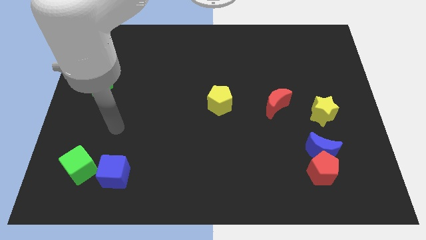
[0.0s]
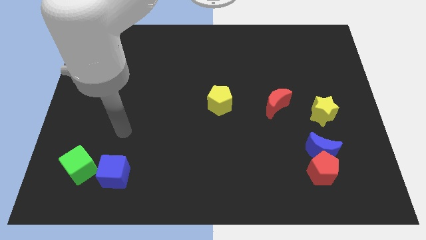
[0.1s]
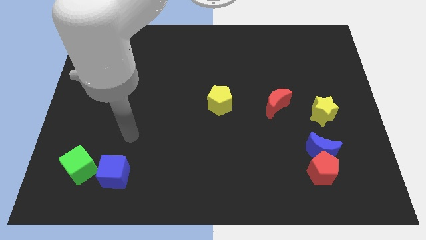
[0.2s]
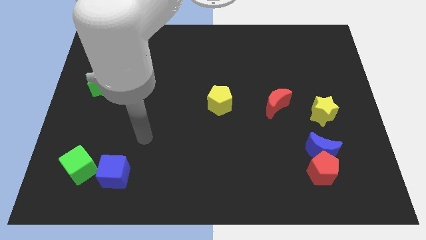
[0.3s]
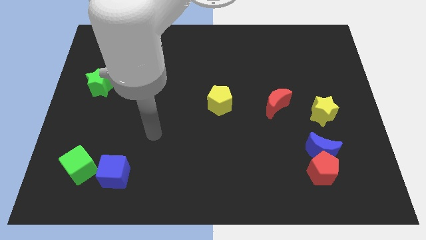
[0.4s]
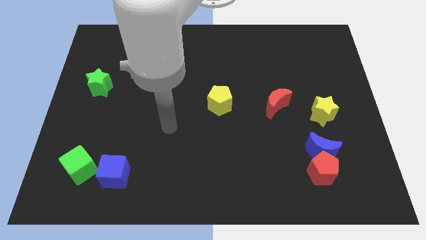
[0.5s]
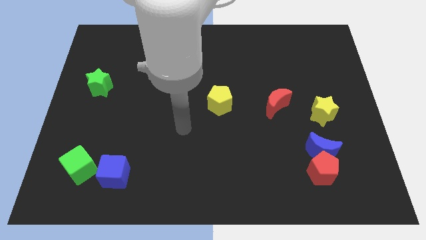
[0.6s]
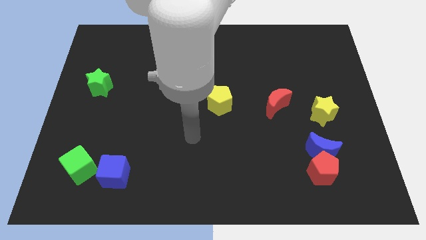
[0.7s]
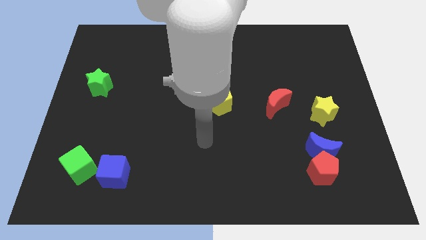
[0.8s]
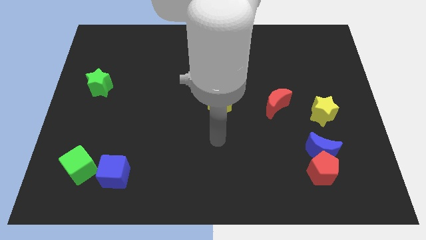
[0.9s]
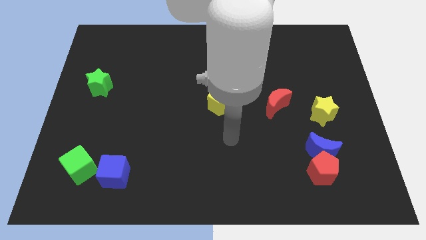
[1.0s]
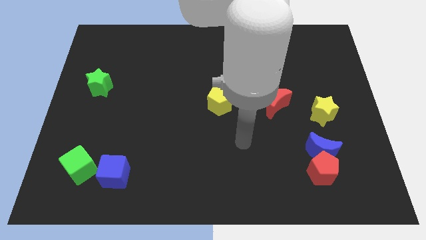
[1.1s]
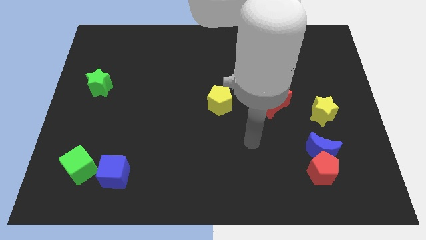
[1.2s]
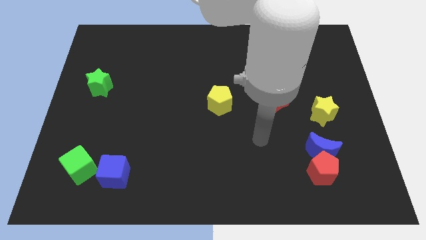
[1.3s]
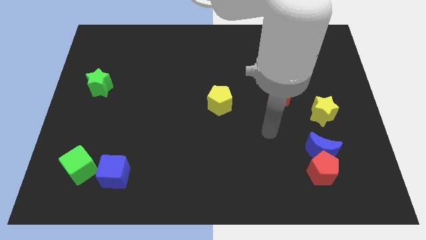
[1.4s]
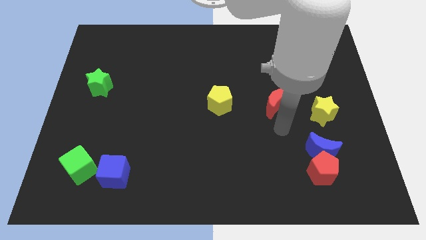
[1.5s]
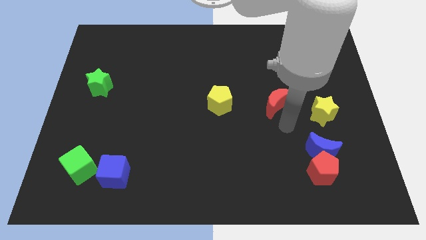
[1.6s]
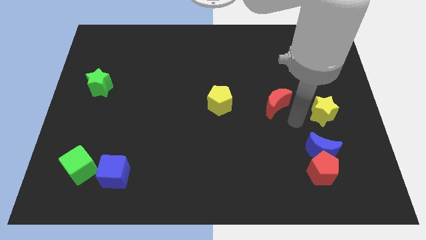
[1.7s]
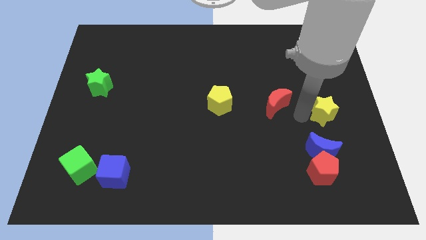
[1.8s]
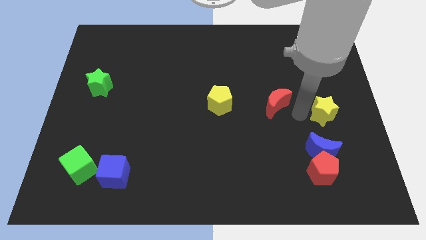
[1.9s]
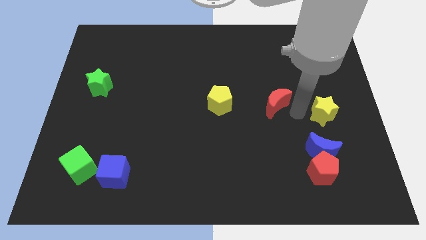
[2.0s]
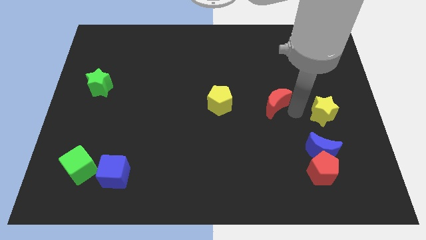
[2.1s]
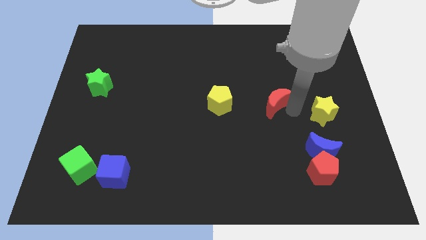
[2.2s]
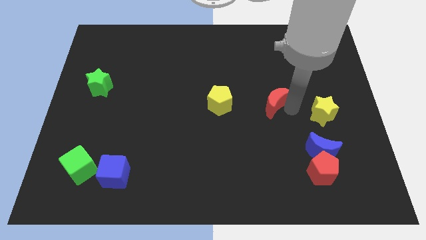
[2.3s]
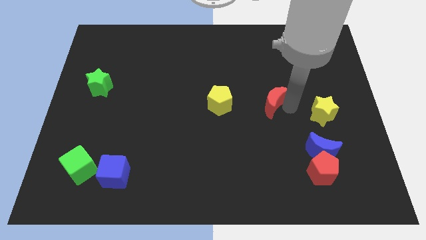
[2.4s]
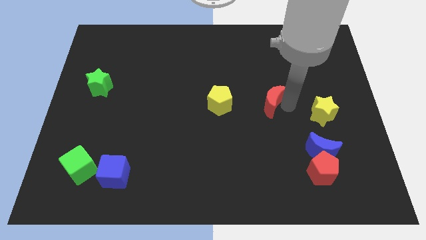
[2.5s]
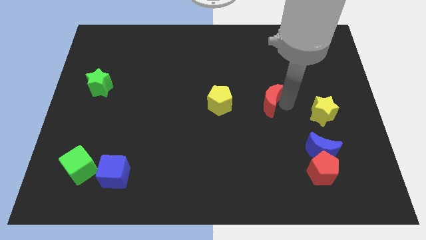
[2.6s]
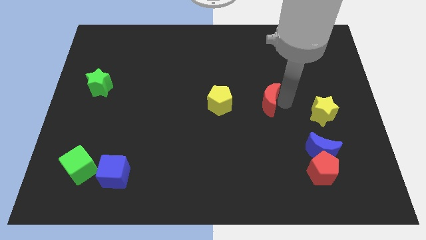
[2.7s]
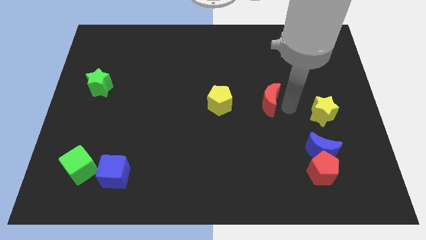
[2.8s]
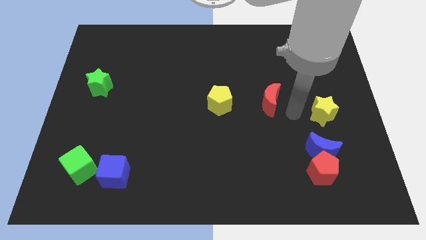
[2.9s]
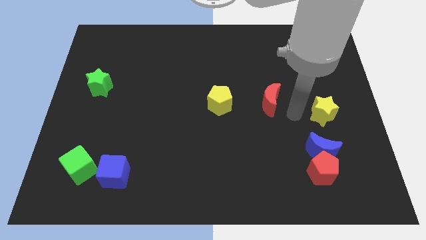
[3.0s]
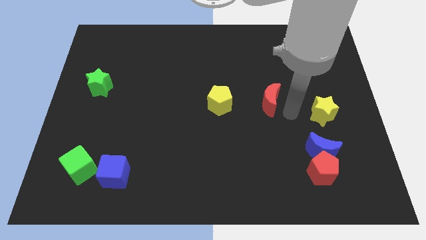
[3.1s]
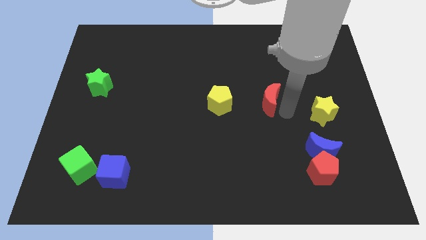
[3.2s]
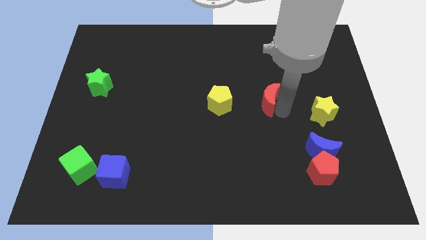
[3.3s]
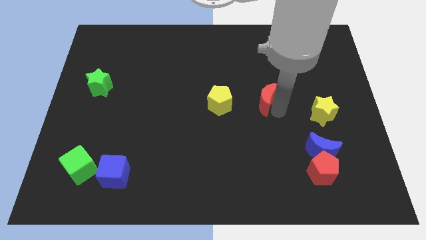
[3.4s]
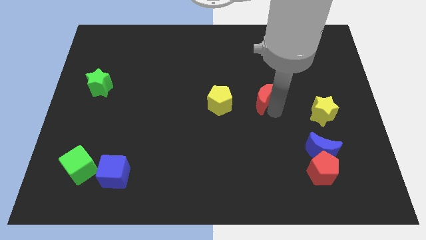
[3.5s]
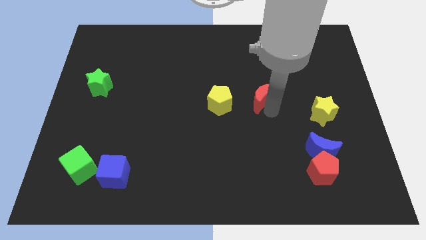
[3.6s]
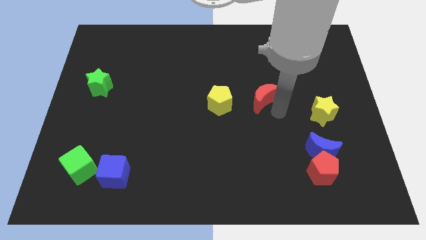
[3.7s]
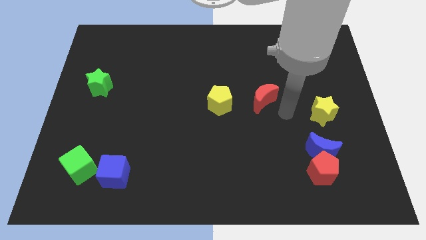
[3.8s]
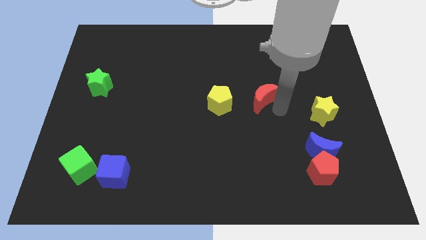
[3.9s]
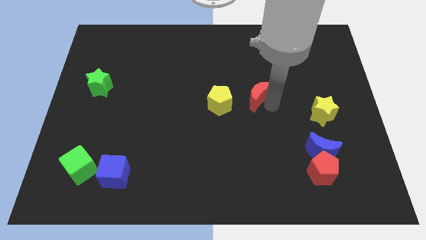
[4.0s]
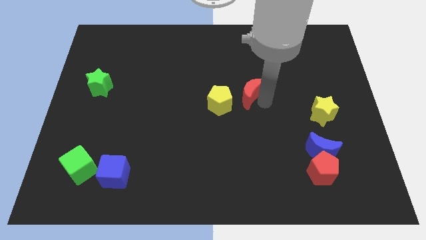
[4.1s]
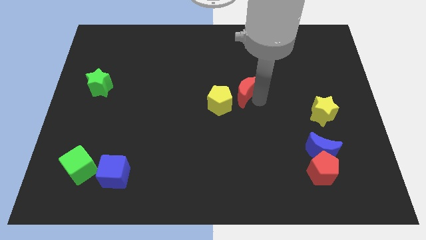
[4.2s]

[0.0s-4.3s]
slightly push the red moon upwards and then left

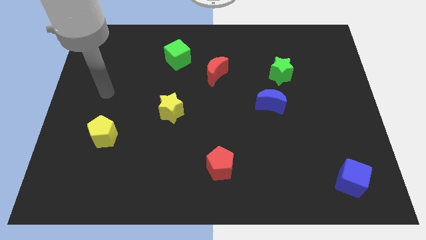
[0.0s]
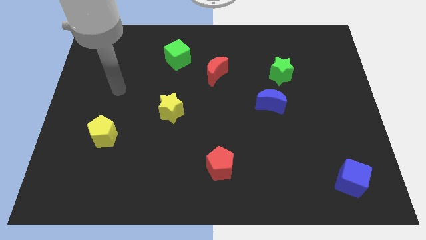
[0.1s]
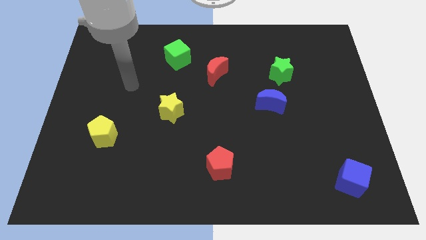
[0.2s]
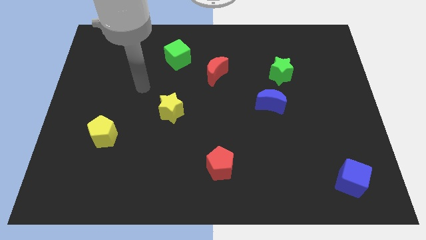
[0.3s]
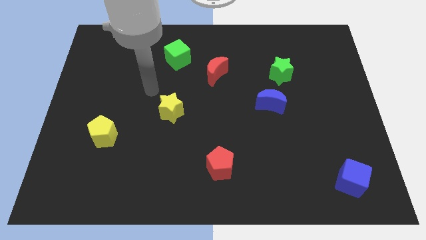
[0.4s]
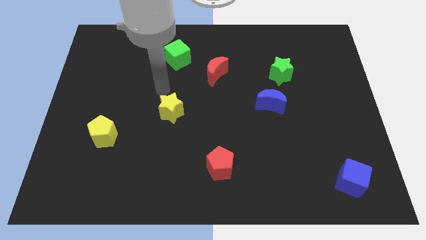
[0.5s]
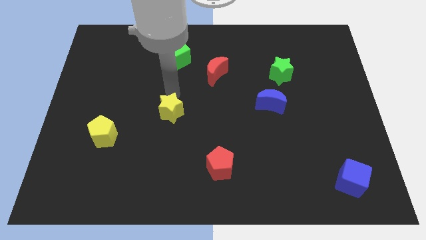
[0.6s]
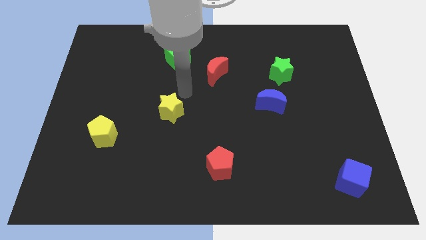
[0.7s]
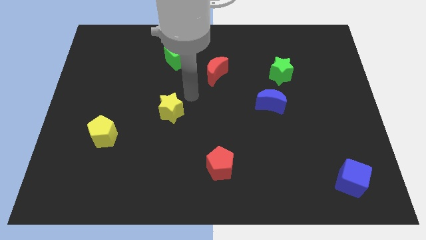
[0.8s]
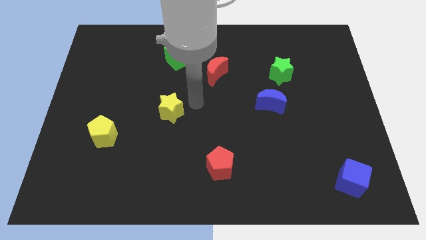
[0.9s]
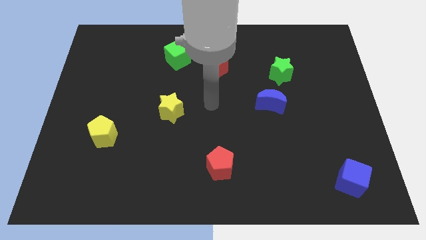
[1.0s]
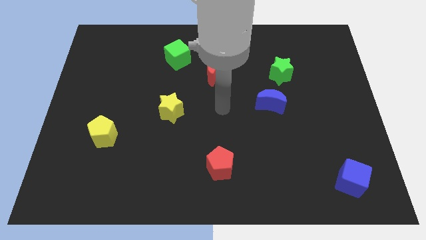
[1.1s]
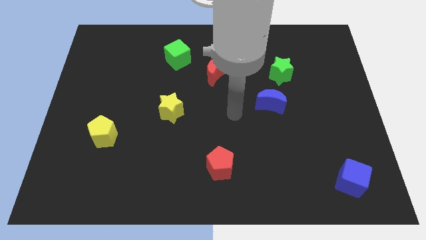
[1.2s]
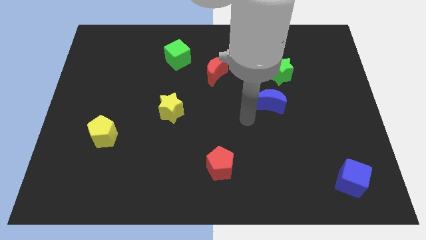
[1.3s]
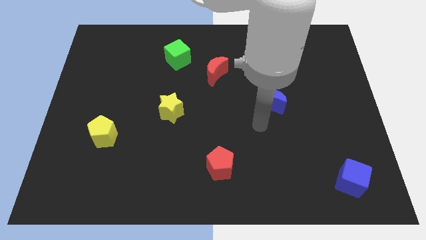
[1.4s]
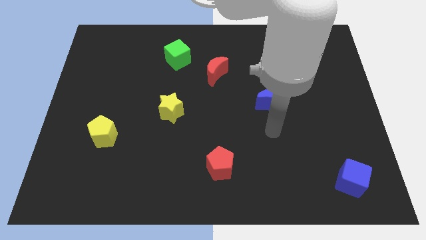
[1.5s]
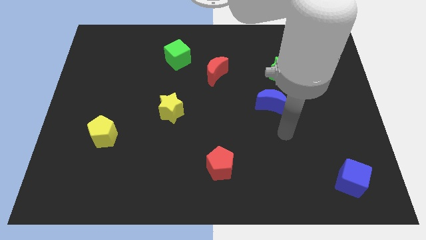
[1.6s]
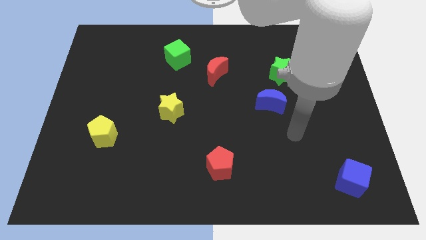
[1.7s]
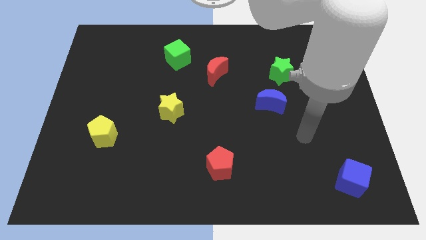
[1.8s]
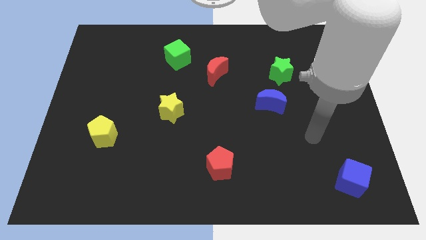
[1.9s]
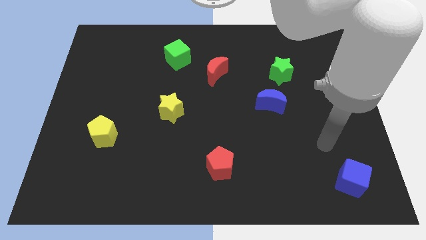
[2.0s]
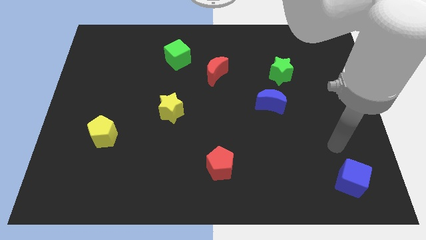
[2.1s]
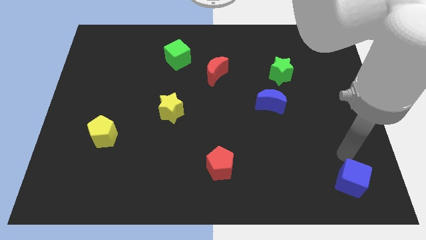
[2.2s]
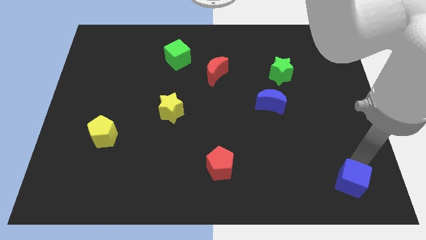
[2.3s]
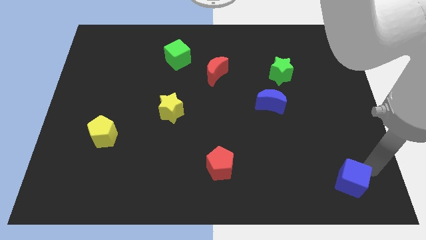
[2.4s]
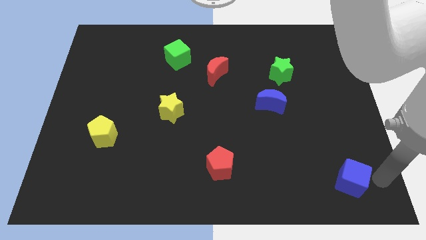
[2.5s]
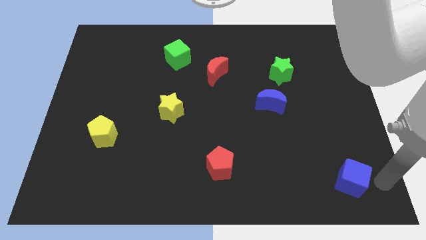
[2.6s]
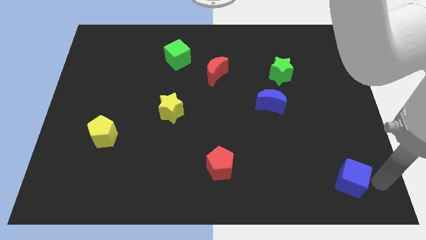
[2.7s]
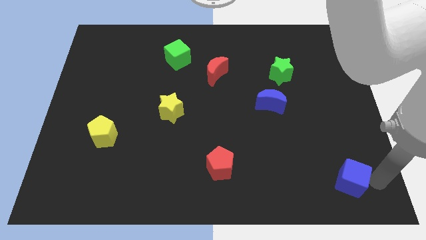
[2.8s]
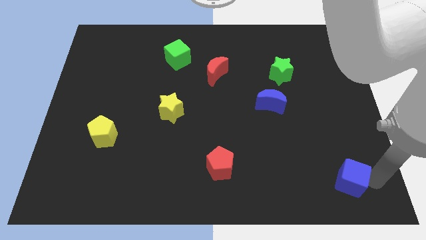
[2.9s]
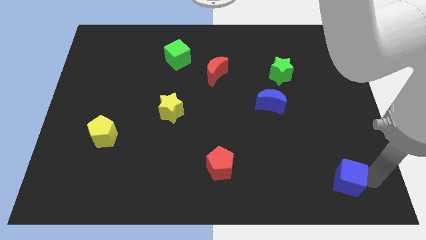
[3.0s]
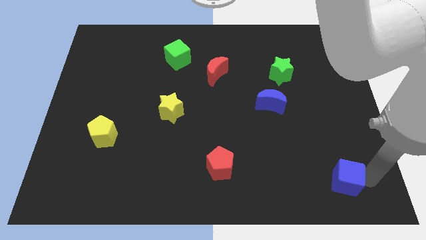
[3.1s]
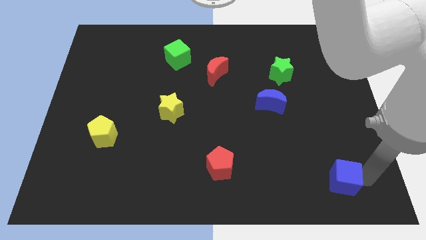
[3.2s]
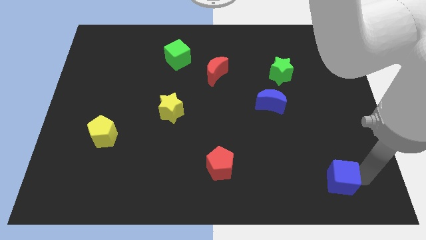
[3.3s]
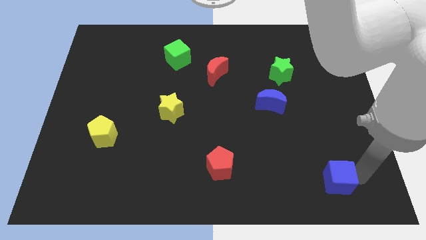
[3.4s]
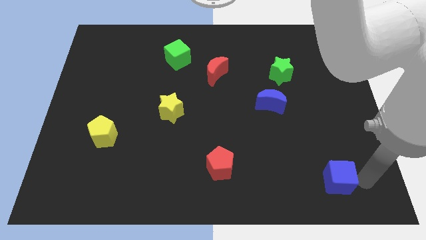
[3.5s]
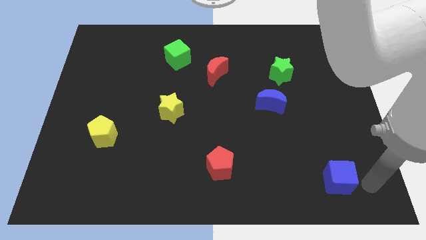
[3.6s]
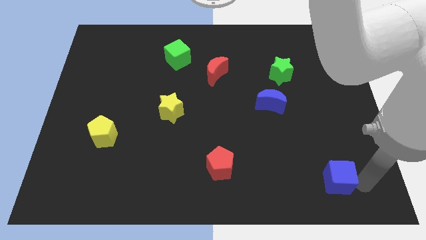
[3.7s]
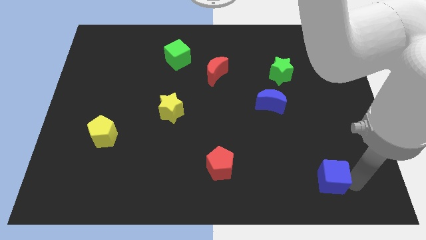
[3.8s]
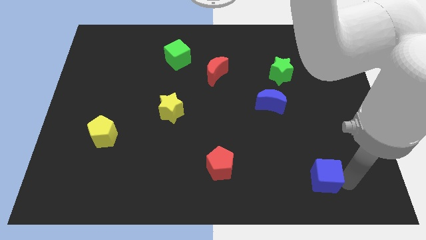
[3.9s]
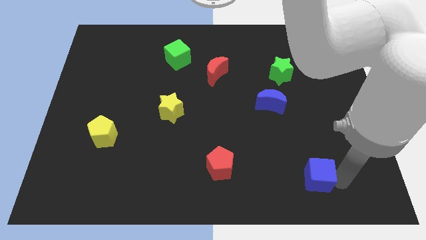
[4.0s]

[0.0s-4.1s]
push the blue cube somewhat to the left
